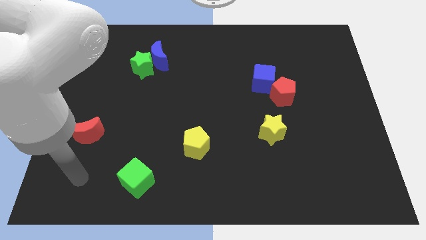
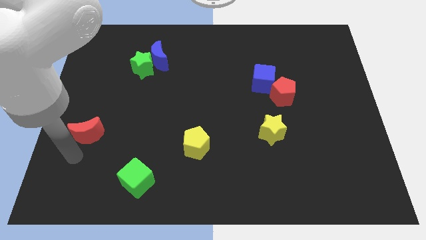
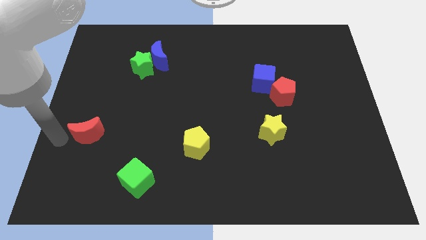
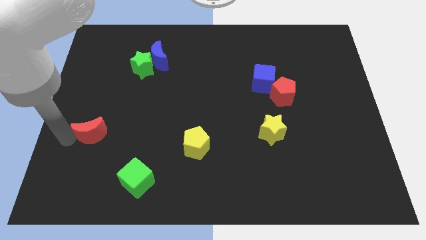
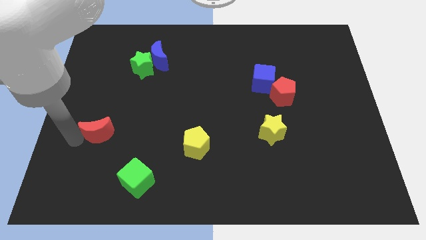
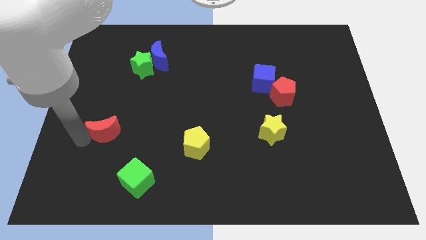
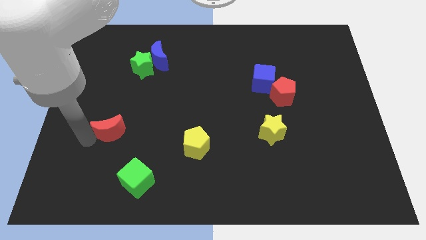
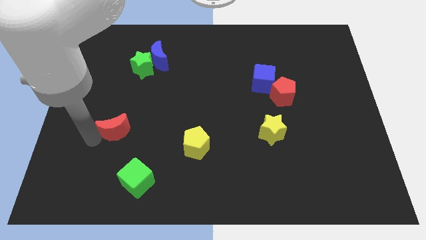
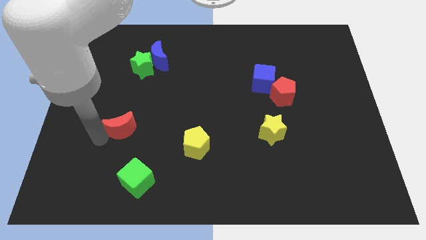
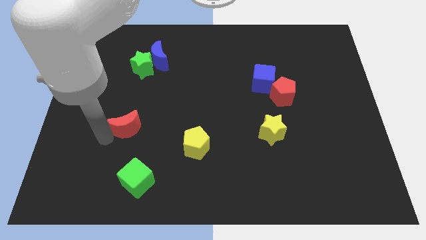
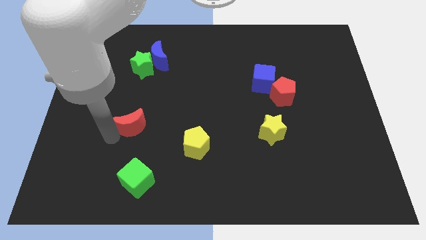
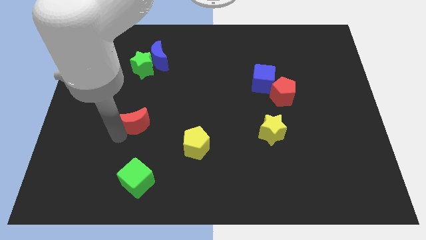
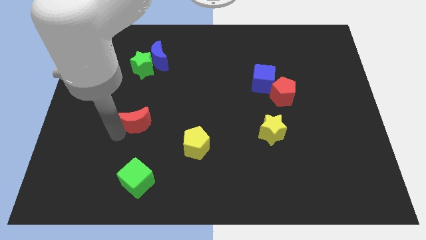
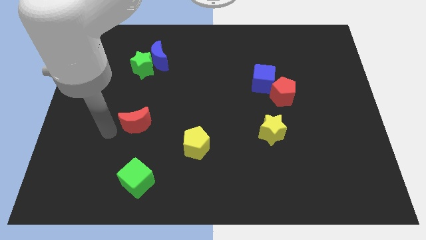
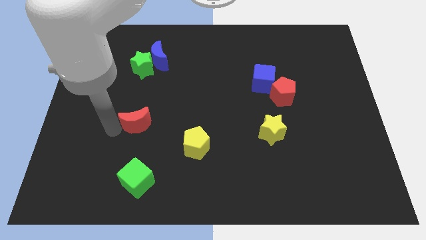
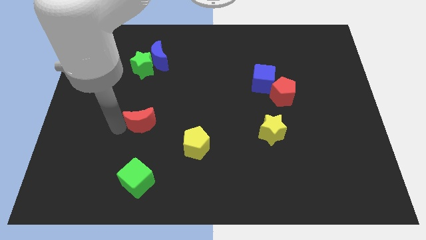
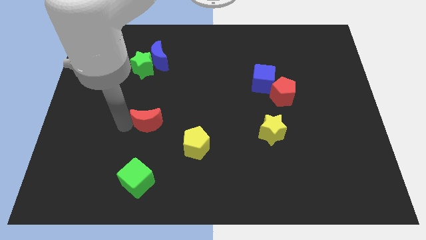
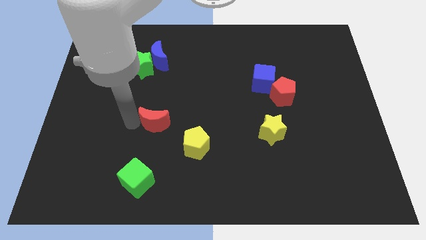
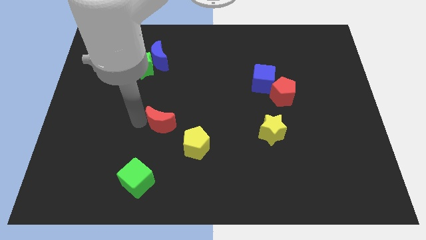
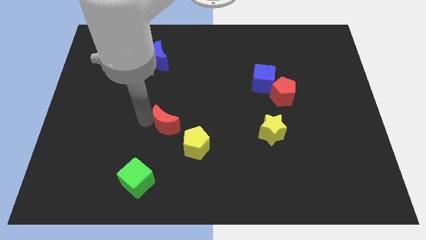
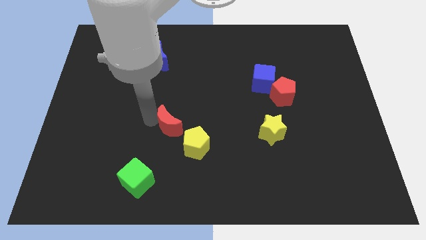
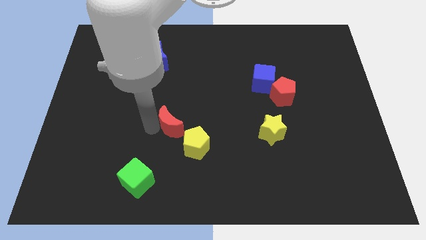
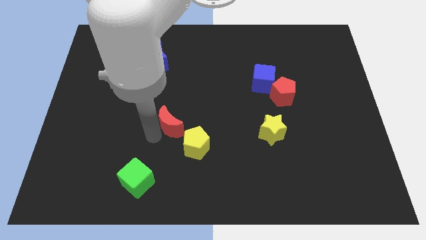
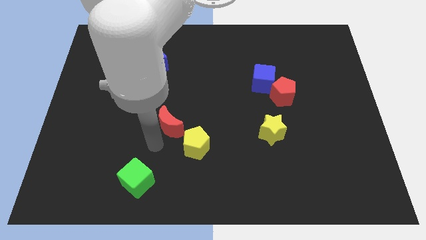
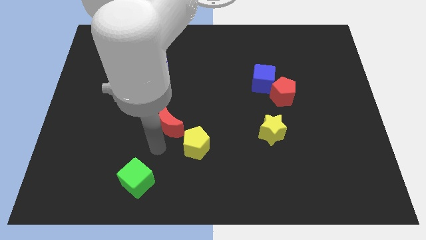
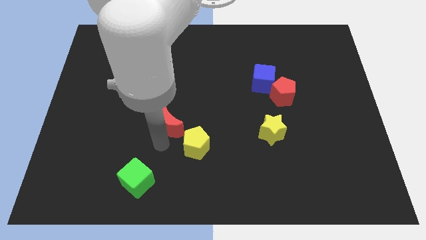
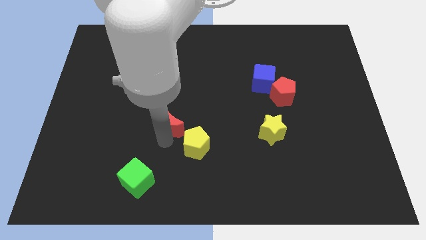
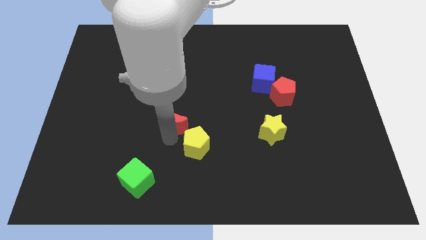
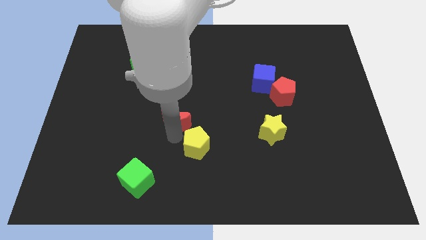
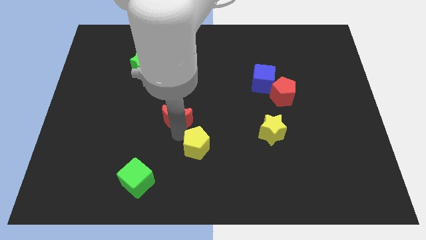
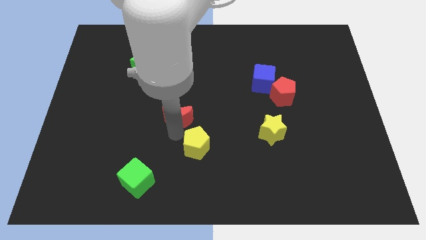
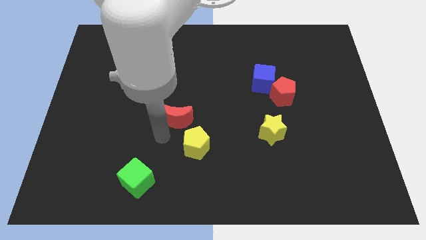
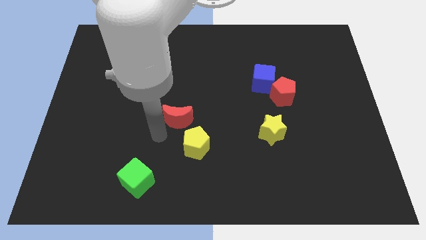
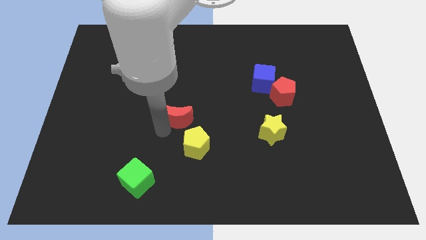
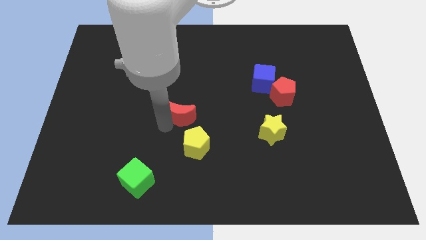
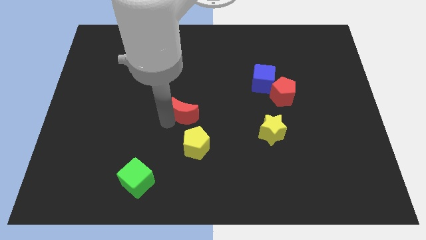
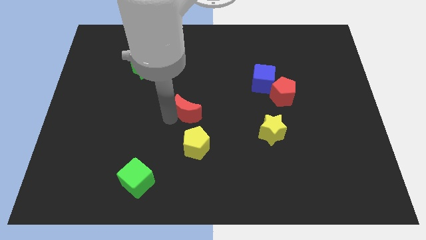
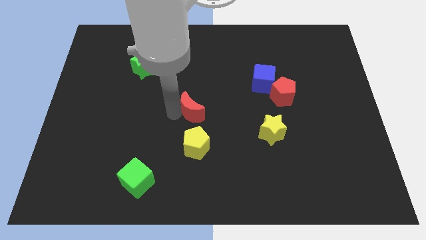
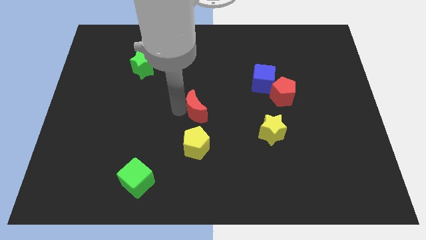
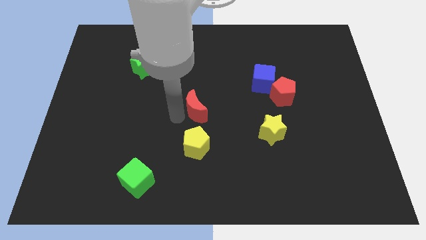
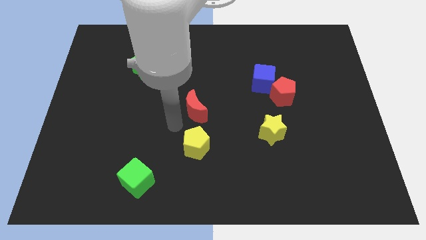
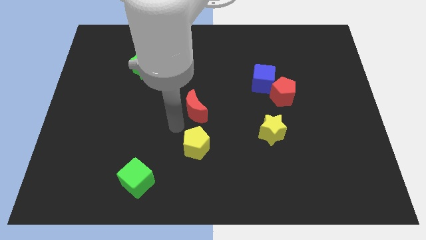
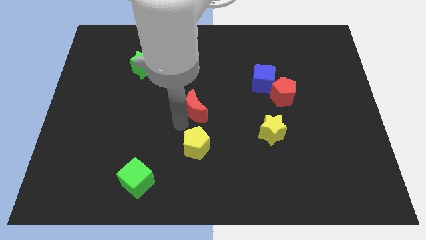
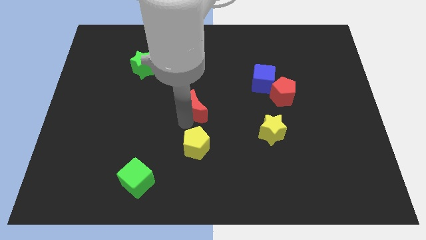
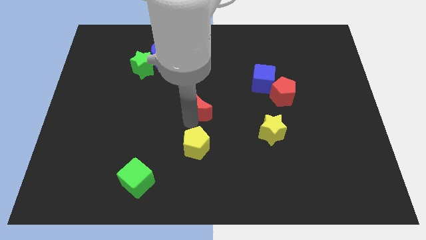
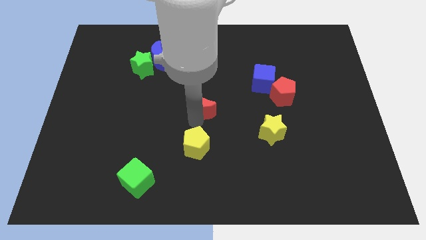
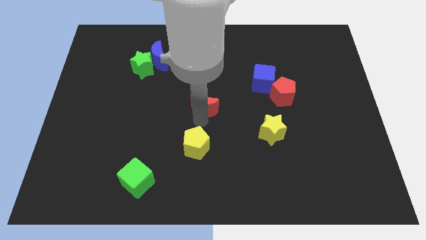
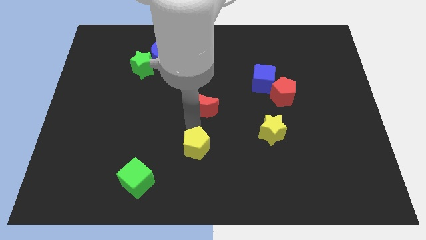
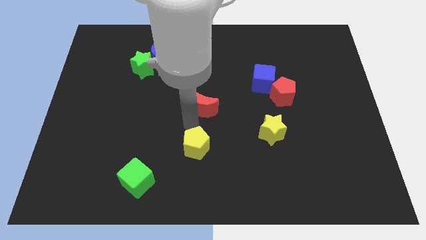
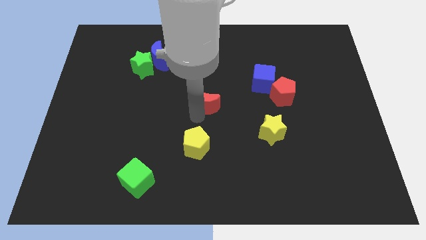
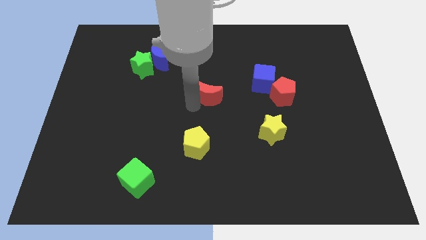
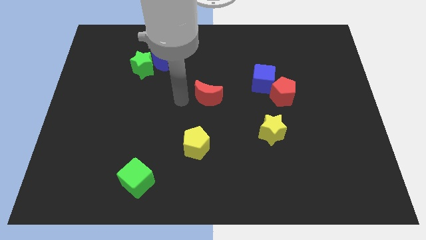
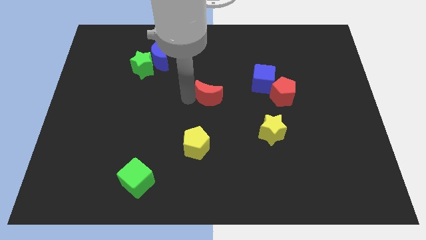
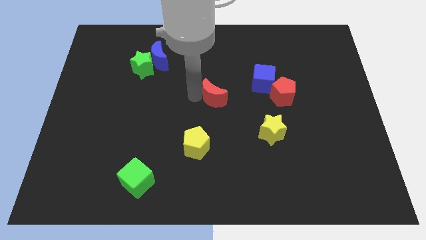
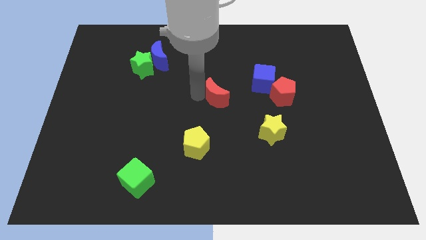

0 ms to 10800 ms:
put the red moon to the left of the red pentagon

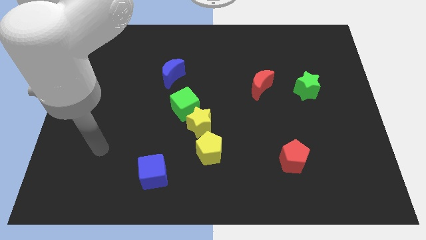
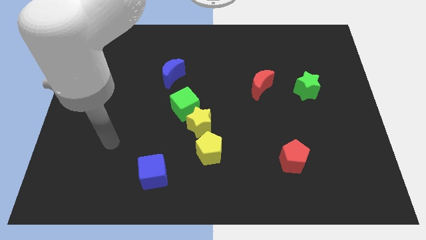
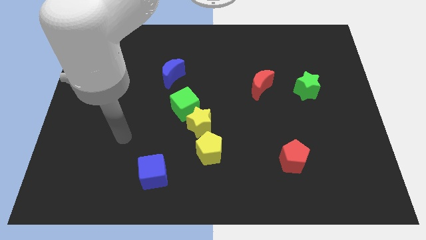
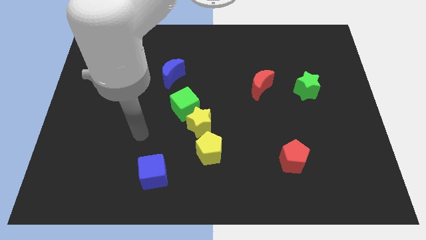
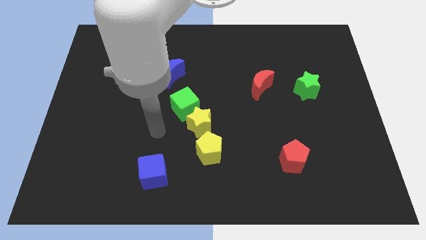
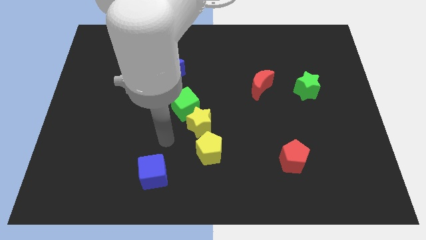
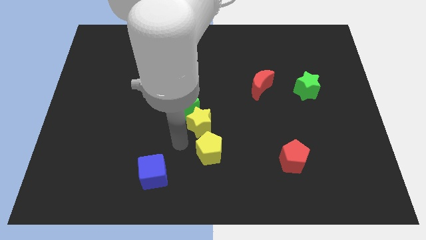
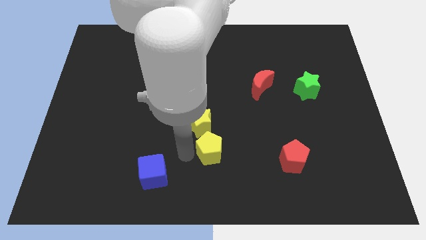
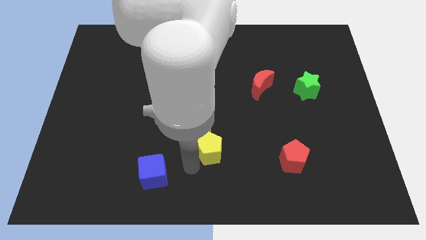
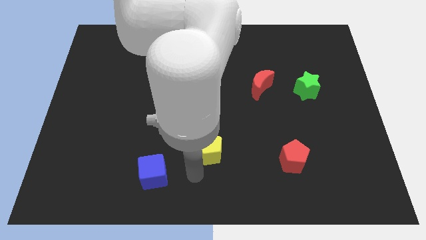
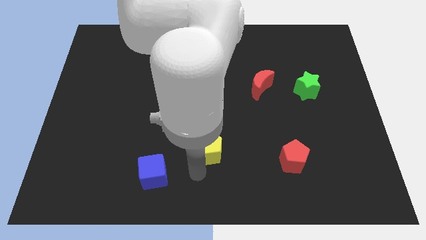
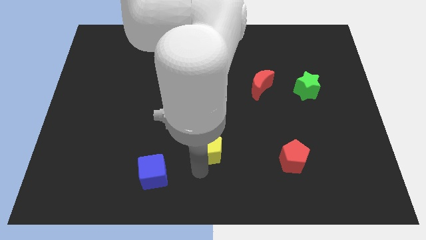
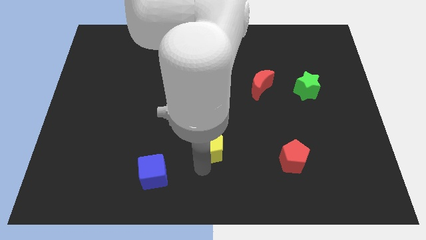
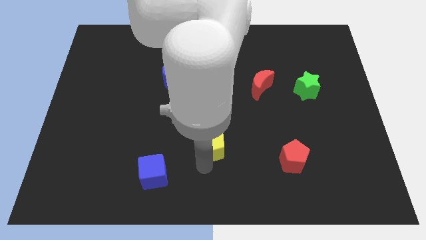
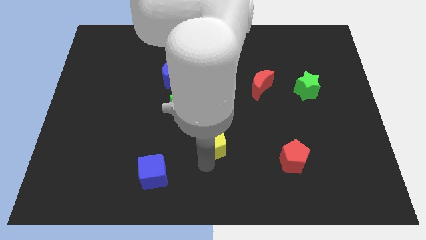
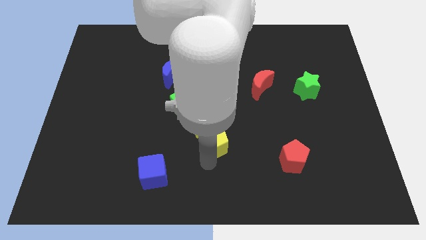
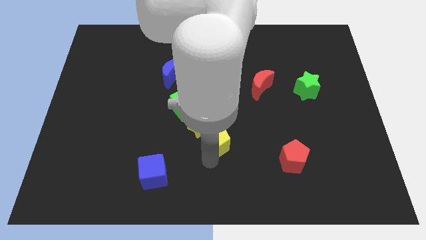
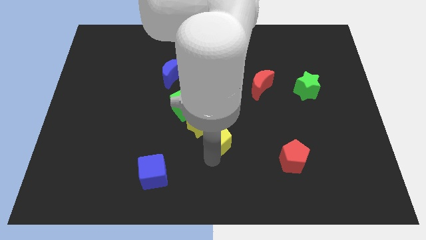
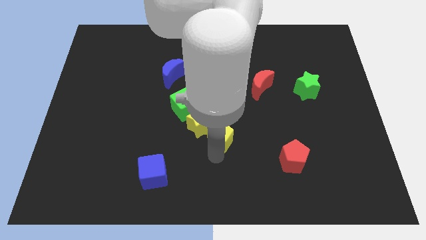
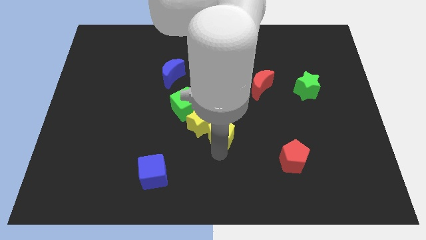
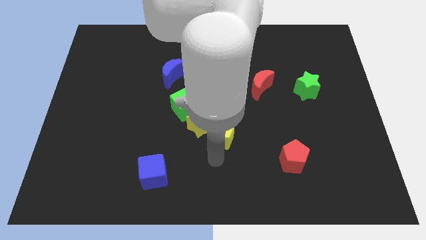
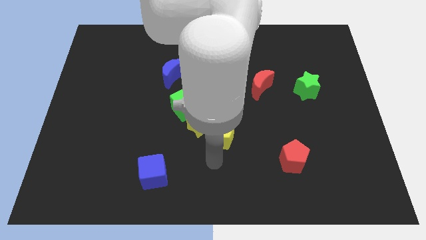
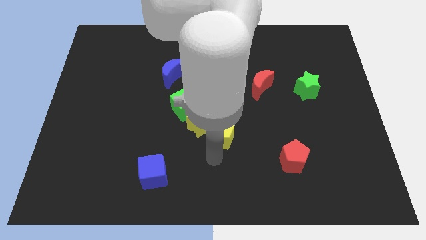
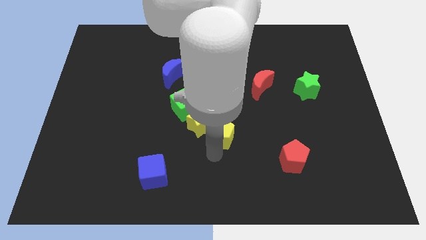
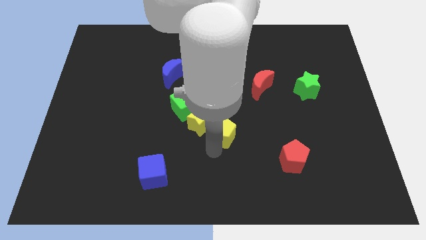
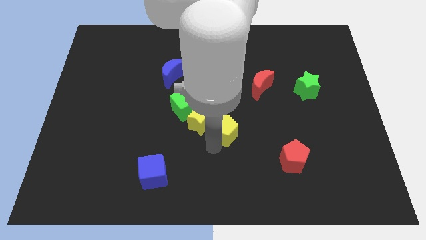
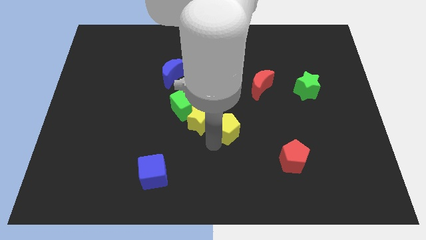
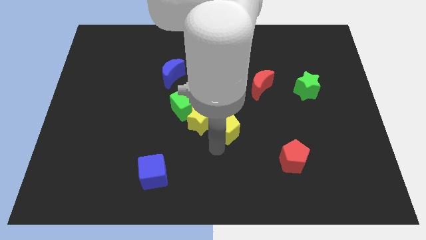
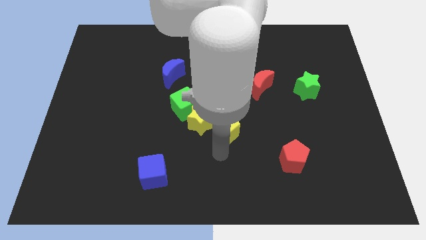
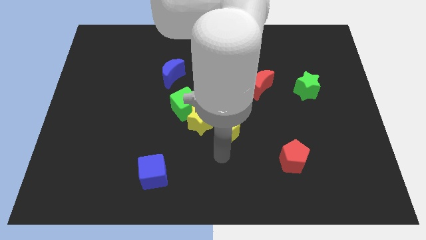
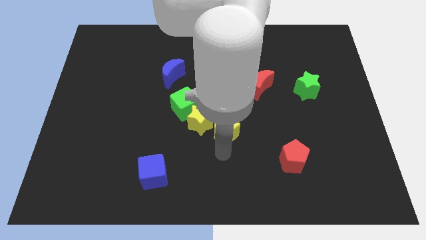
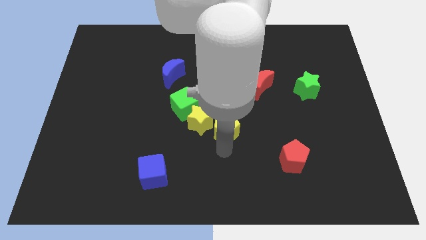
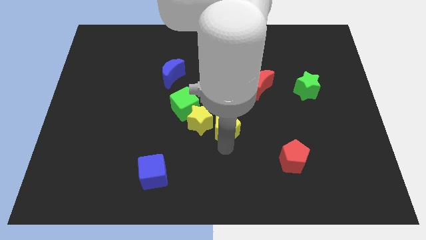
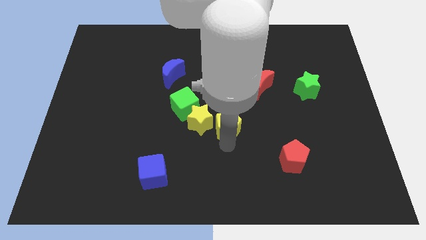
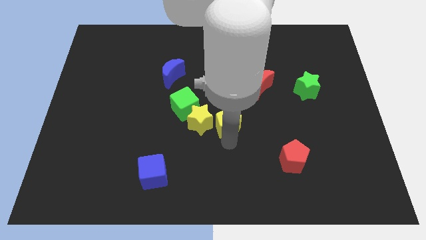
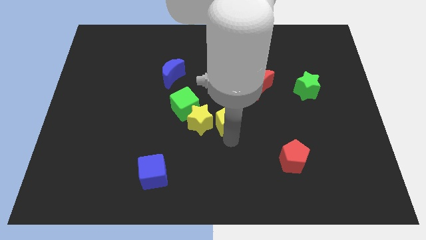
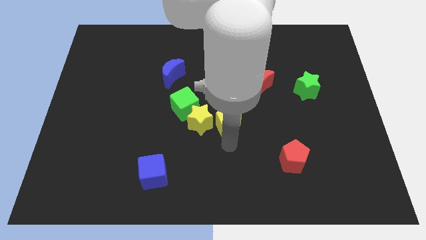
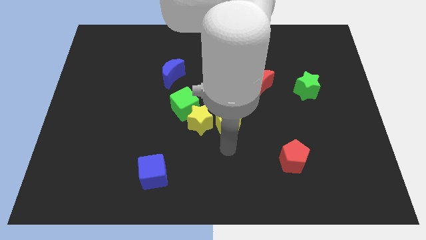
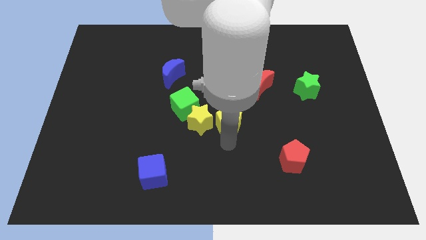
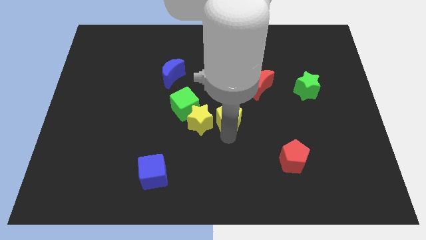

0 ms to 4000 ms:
slide the yellow pentagon right of the green cube
